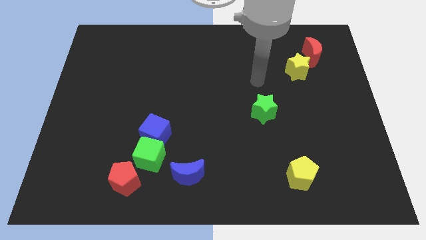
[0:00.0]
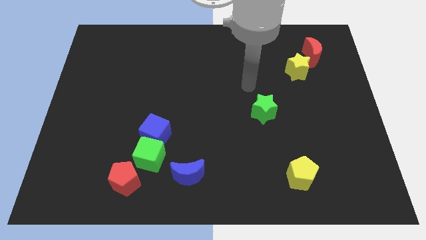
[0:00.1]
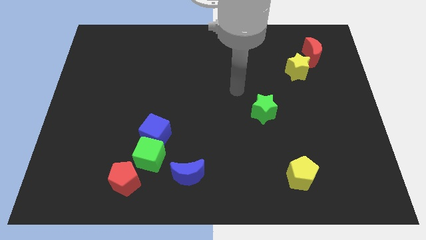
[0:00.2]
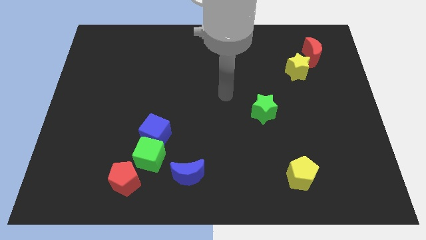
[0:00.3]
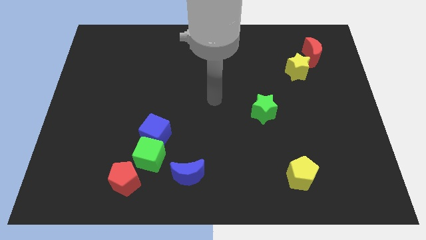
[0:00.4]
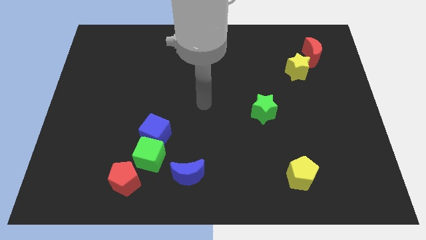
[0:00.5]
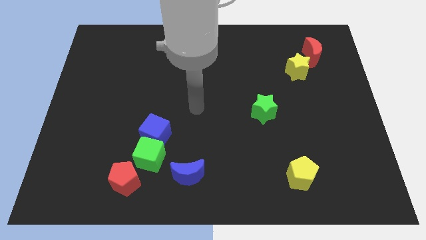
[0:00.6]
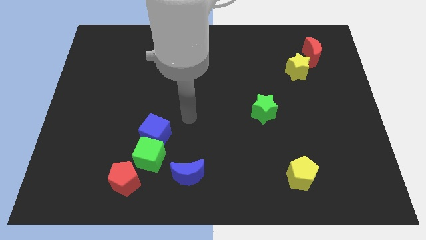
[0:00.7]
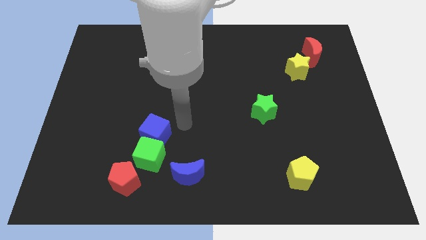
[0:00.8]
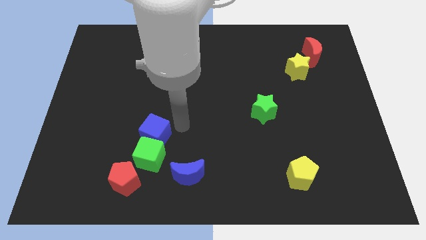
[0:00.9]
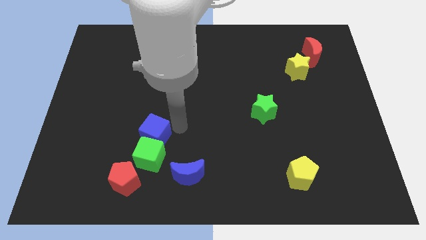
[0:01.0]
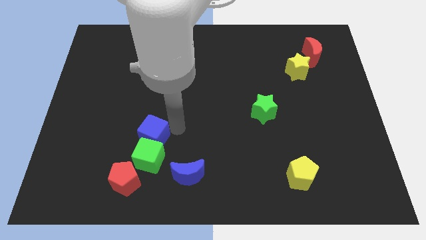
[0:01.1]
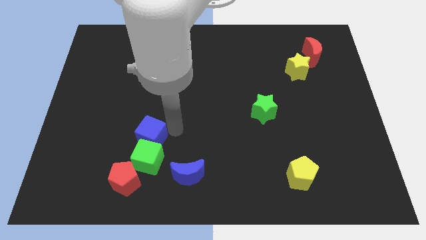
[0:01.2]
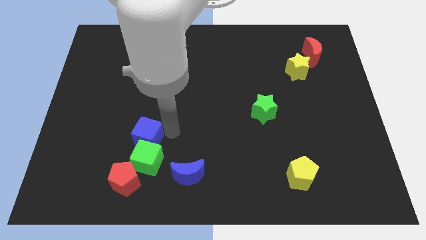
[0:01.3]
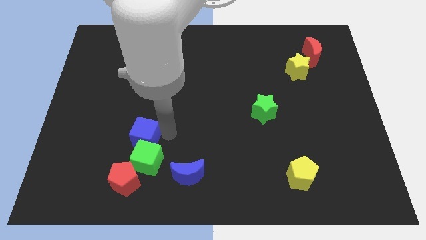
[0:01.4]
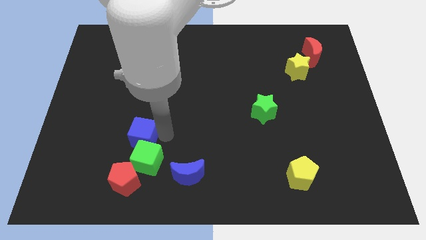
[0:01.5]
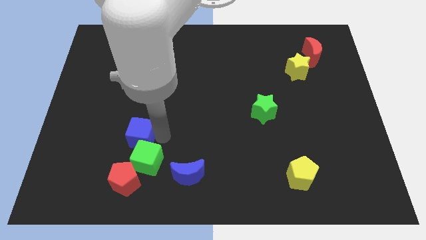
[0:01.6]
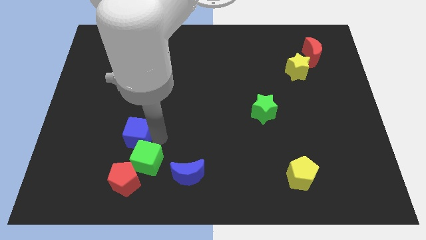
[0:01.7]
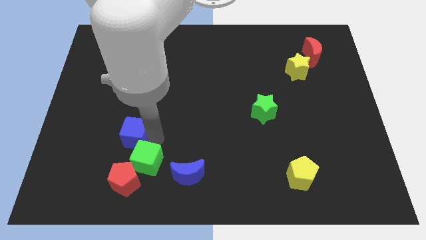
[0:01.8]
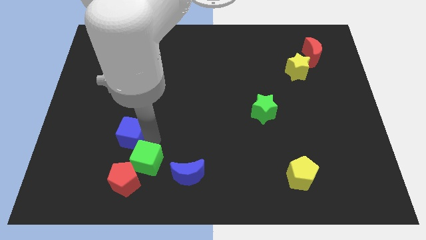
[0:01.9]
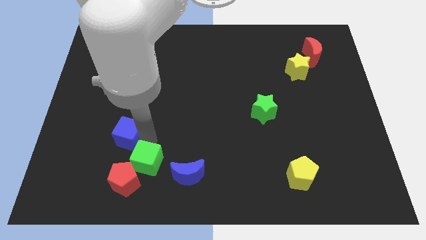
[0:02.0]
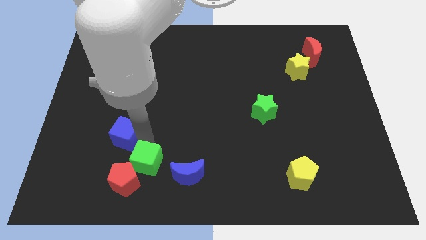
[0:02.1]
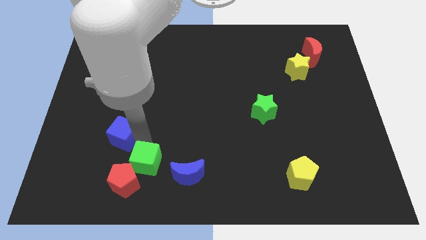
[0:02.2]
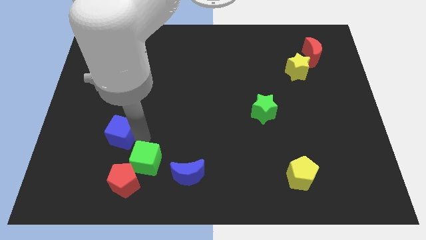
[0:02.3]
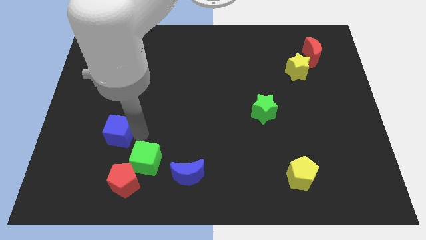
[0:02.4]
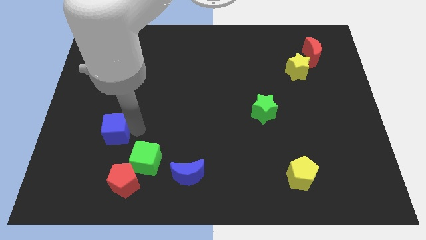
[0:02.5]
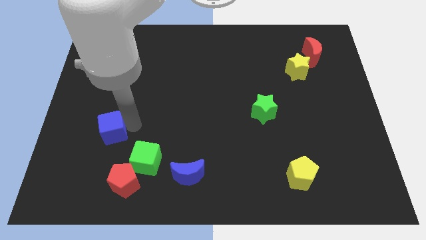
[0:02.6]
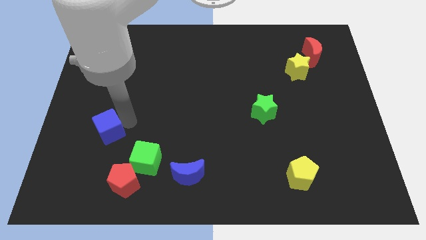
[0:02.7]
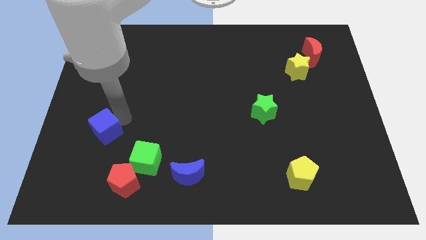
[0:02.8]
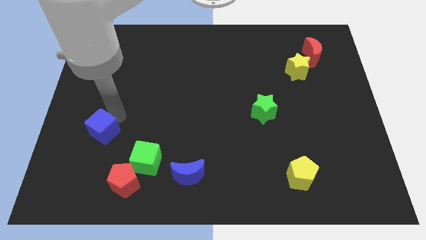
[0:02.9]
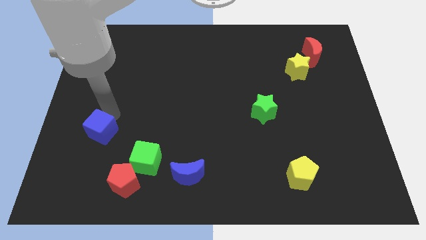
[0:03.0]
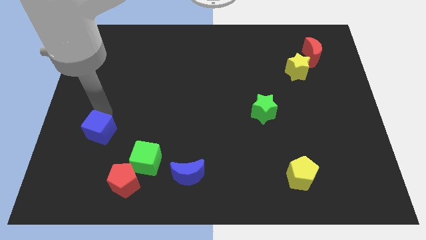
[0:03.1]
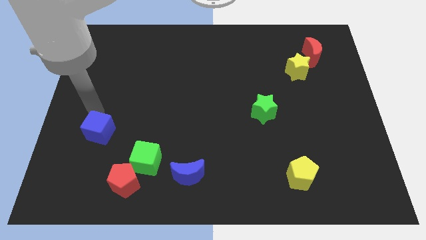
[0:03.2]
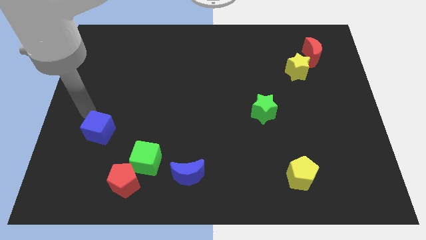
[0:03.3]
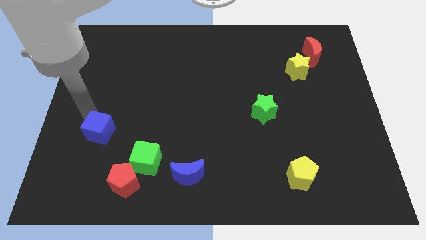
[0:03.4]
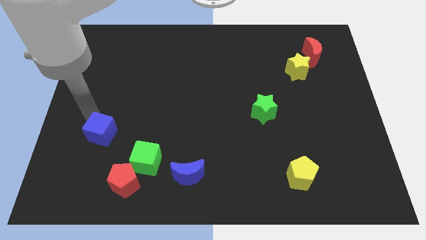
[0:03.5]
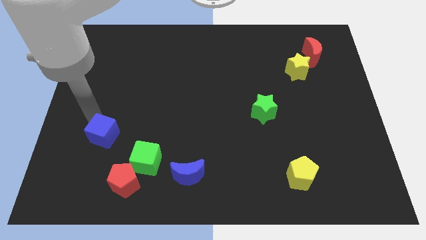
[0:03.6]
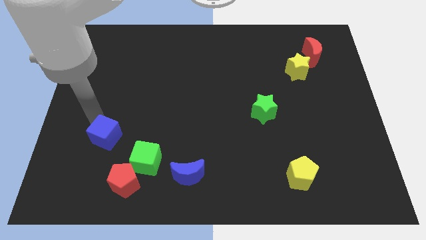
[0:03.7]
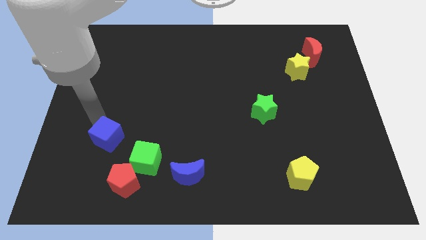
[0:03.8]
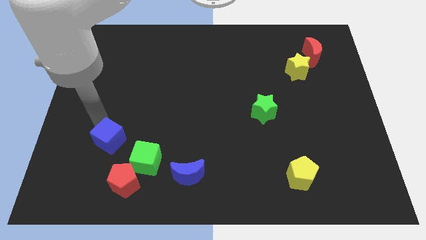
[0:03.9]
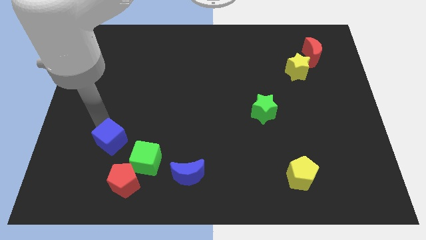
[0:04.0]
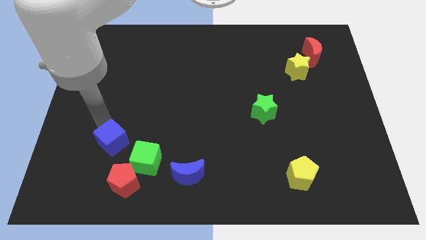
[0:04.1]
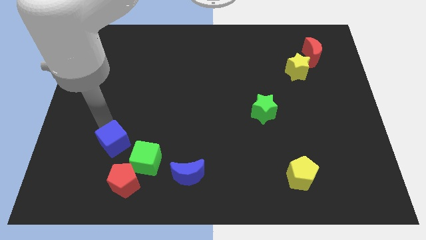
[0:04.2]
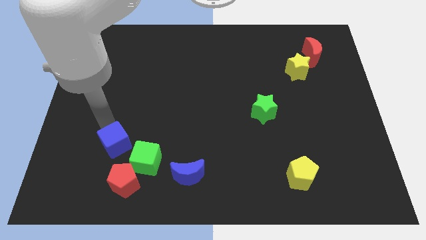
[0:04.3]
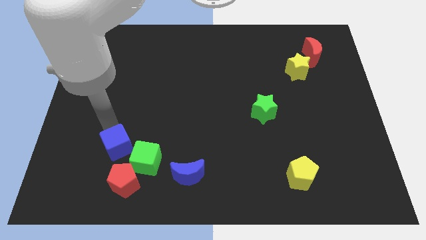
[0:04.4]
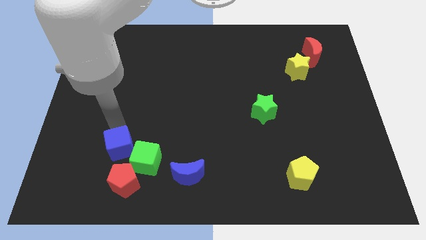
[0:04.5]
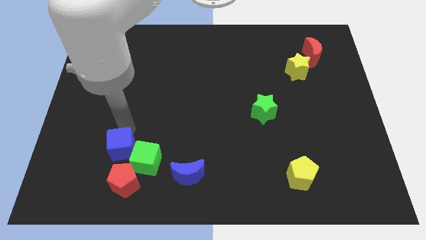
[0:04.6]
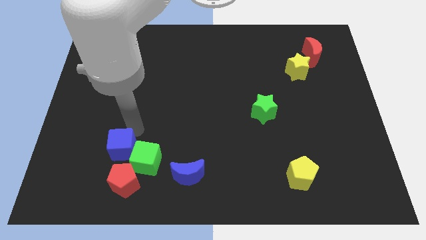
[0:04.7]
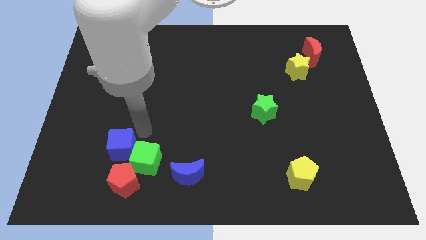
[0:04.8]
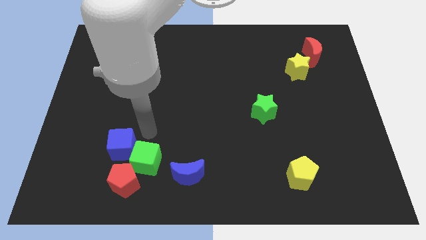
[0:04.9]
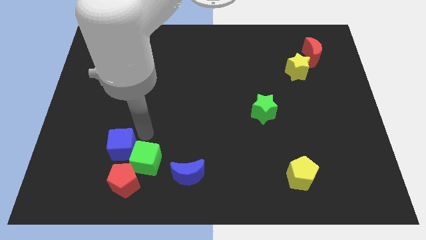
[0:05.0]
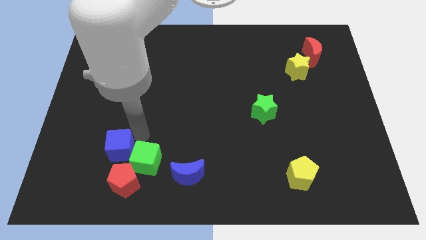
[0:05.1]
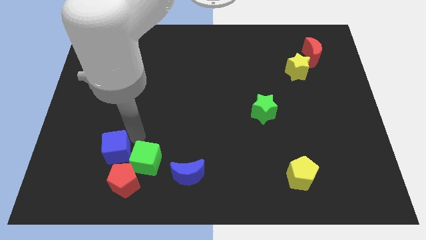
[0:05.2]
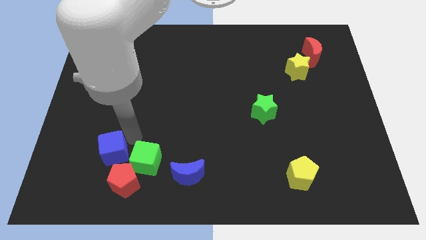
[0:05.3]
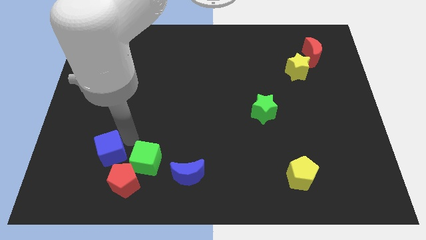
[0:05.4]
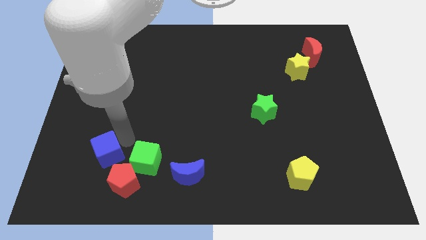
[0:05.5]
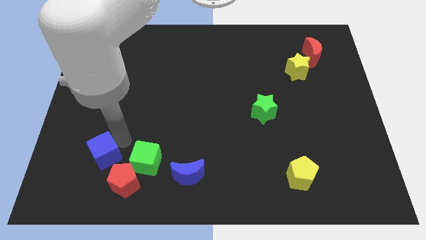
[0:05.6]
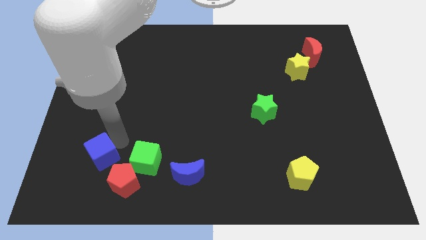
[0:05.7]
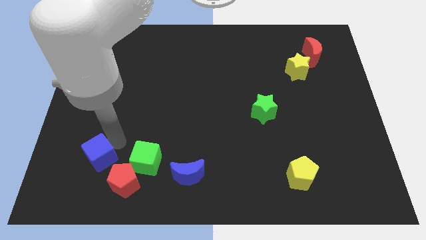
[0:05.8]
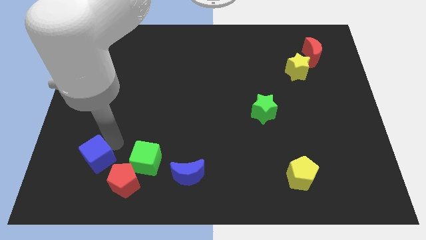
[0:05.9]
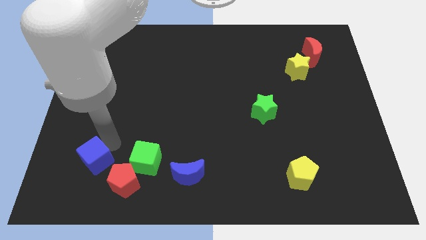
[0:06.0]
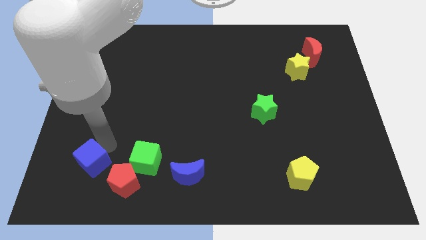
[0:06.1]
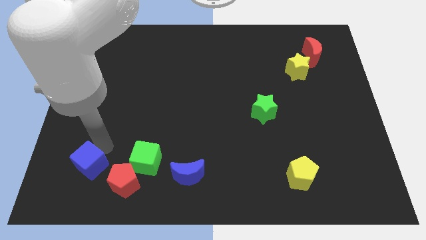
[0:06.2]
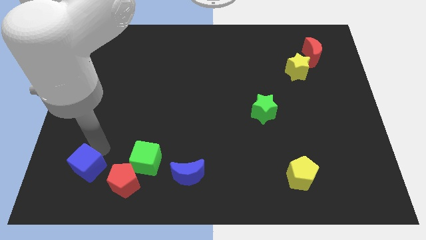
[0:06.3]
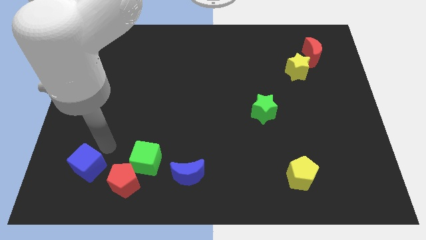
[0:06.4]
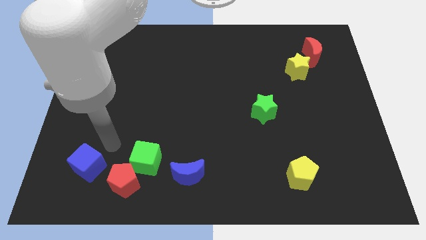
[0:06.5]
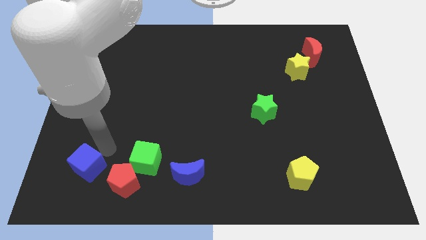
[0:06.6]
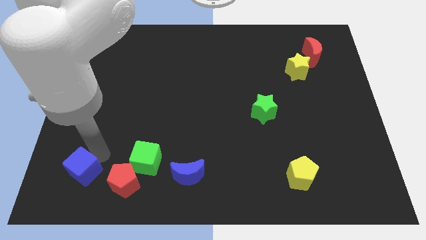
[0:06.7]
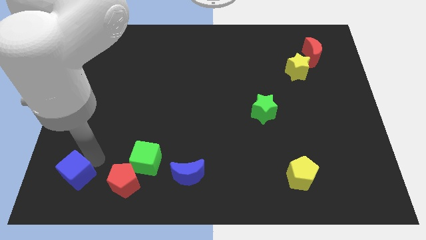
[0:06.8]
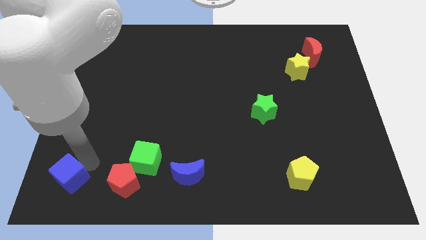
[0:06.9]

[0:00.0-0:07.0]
move the blue cube to the bottom left of the board

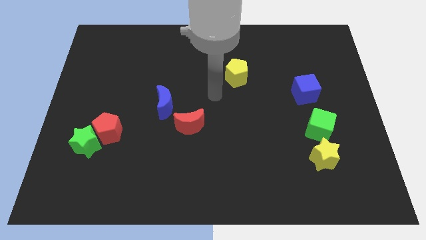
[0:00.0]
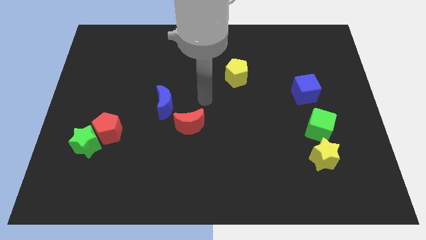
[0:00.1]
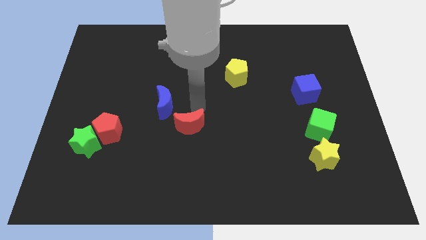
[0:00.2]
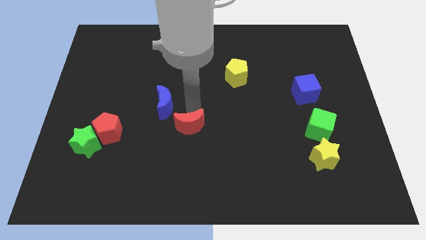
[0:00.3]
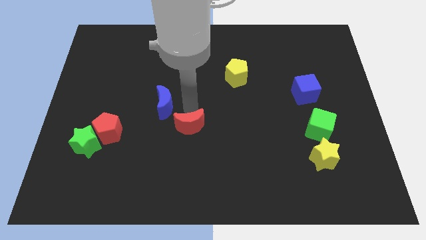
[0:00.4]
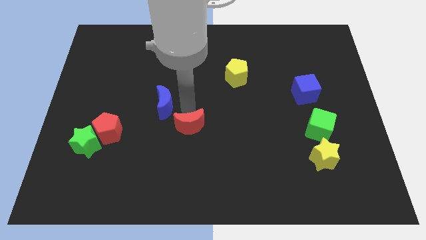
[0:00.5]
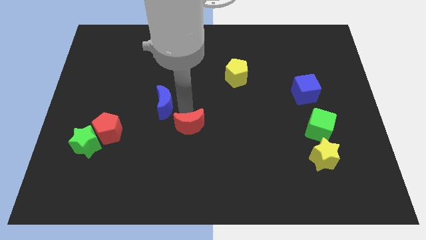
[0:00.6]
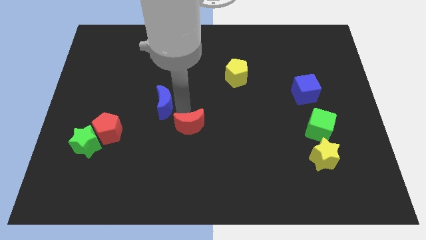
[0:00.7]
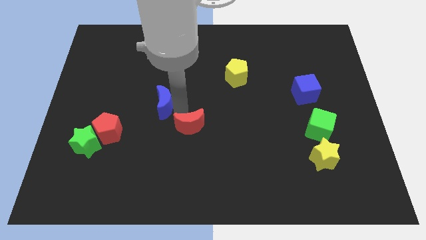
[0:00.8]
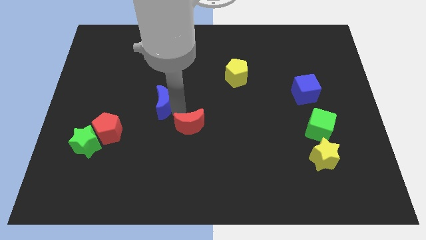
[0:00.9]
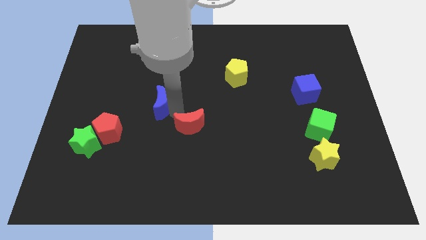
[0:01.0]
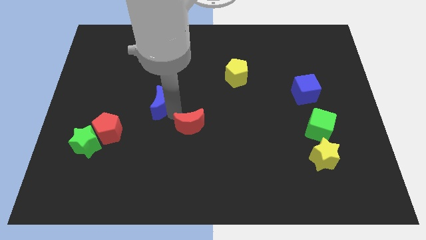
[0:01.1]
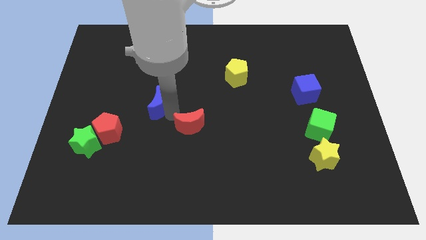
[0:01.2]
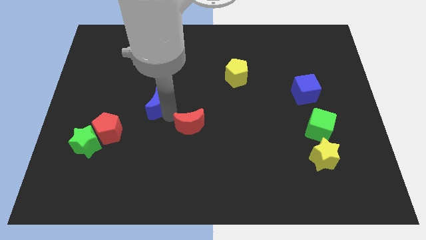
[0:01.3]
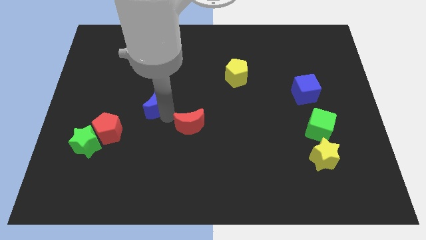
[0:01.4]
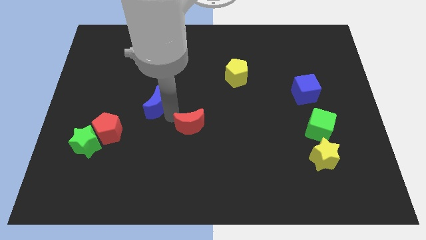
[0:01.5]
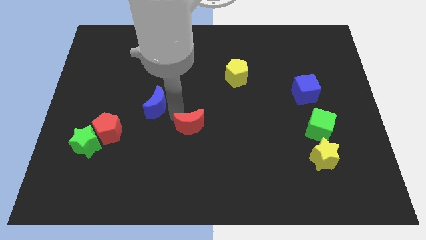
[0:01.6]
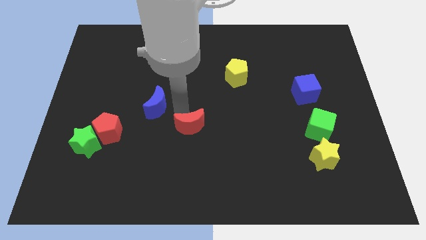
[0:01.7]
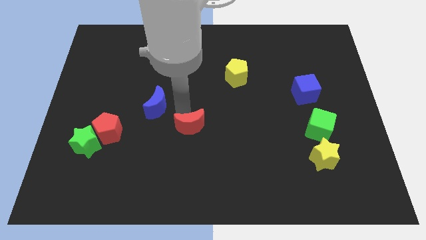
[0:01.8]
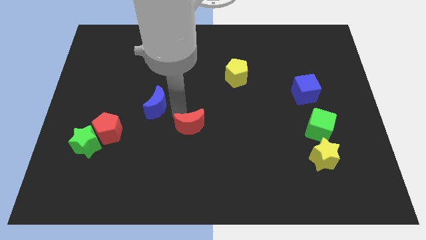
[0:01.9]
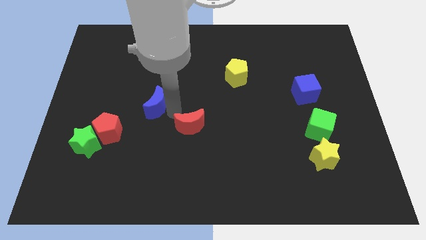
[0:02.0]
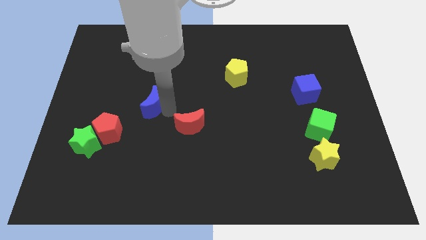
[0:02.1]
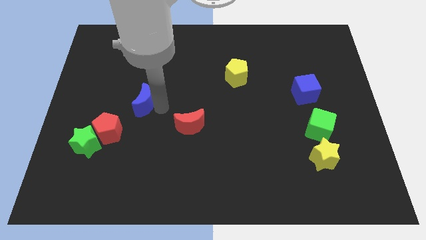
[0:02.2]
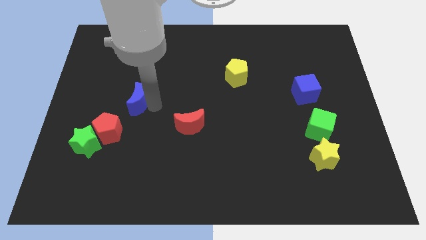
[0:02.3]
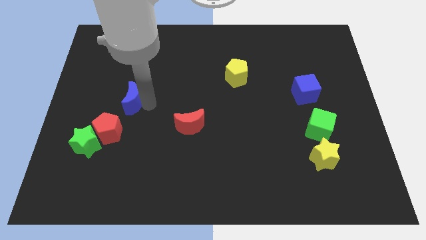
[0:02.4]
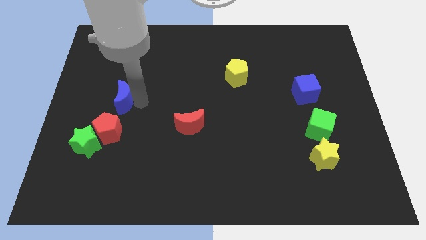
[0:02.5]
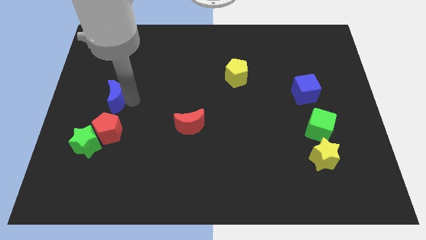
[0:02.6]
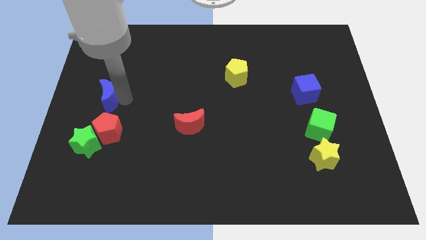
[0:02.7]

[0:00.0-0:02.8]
slide the blue moon to the left side of the board
